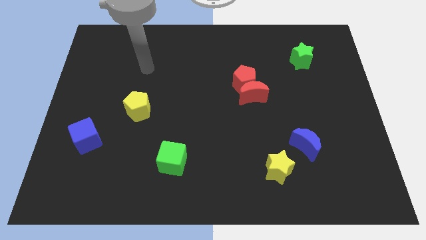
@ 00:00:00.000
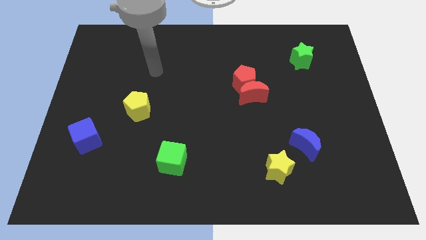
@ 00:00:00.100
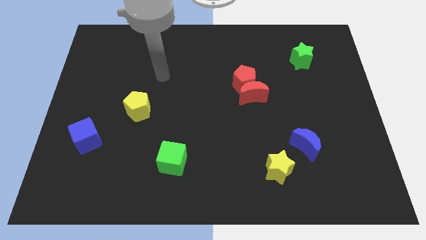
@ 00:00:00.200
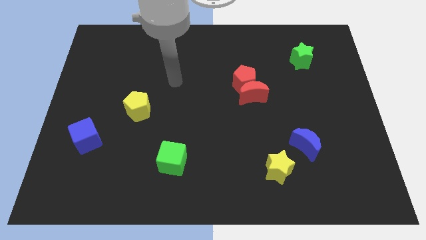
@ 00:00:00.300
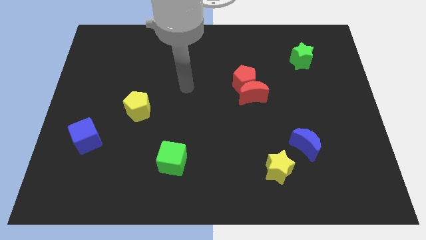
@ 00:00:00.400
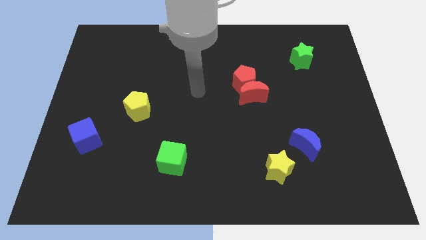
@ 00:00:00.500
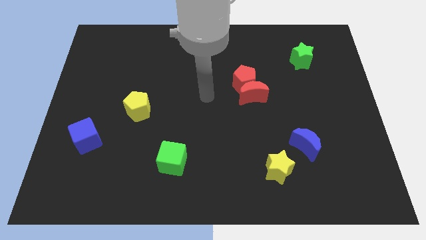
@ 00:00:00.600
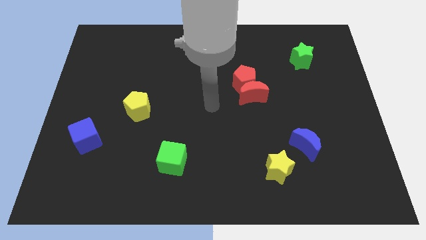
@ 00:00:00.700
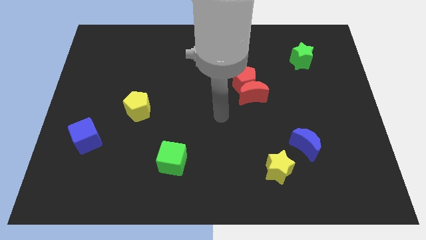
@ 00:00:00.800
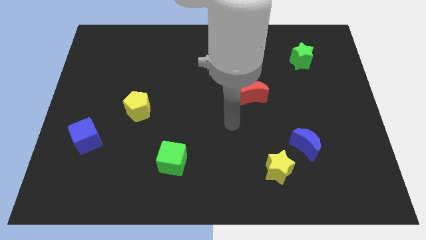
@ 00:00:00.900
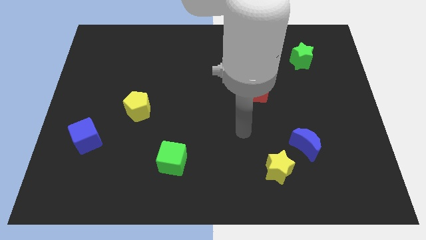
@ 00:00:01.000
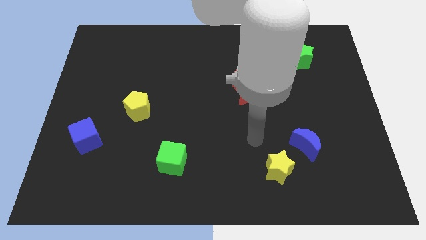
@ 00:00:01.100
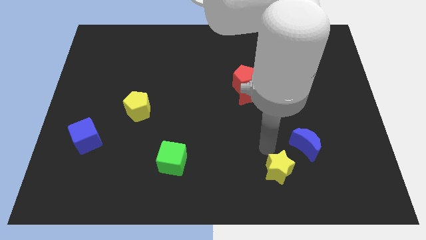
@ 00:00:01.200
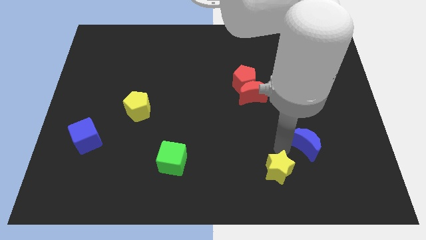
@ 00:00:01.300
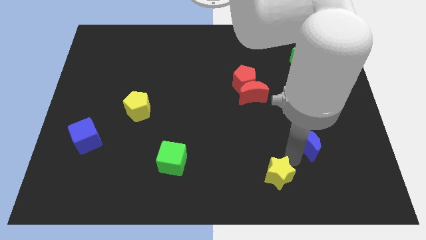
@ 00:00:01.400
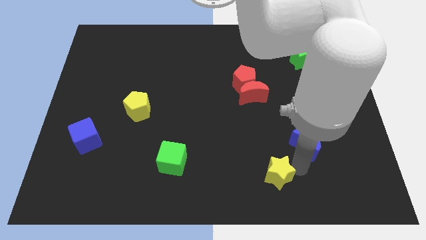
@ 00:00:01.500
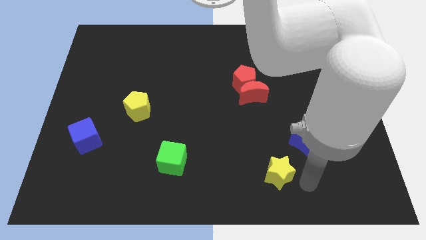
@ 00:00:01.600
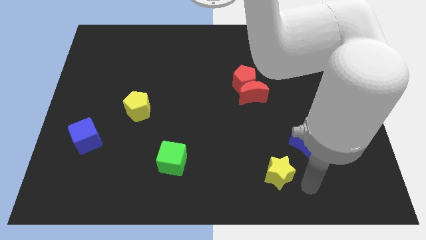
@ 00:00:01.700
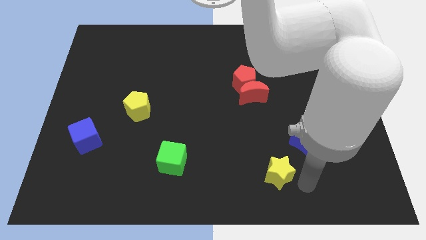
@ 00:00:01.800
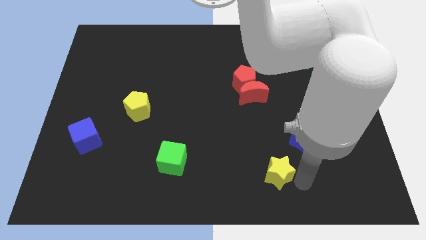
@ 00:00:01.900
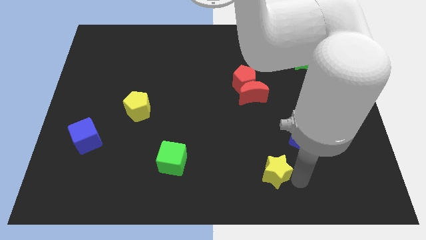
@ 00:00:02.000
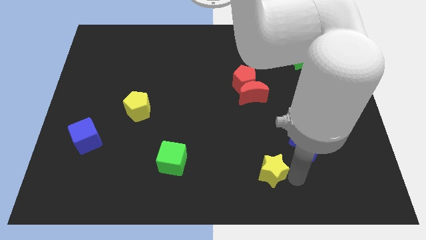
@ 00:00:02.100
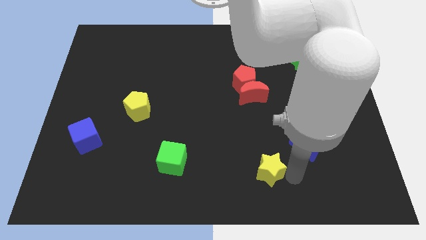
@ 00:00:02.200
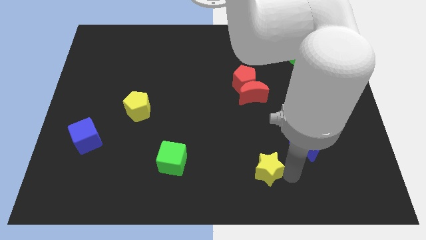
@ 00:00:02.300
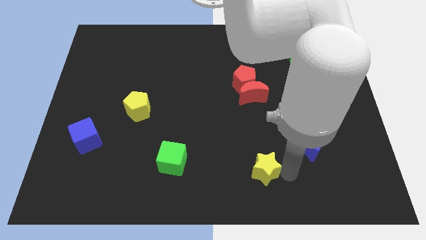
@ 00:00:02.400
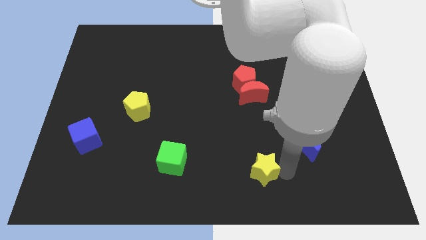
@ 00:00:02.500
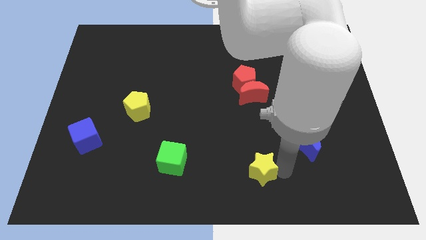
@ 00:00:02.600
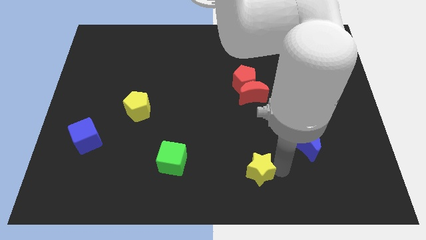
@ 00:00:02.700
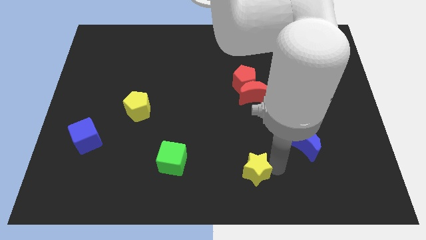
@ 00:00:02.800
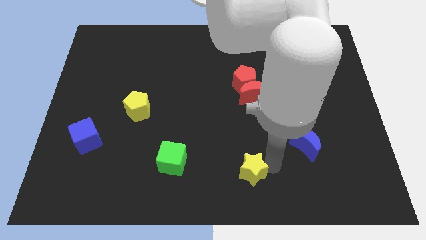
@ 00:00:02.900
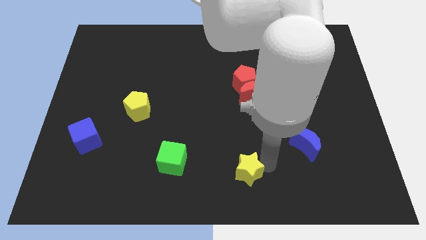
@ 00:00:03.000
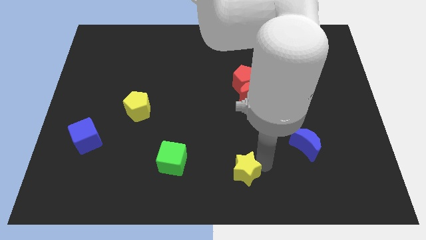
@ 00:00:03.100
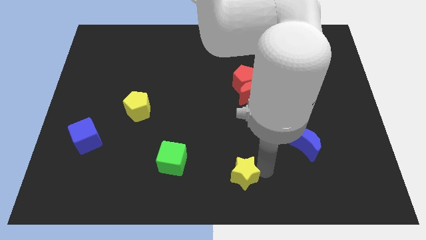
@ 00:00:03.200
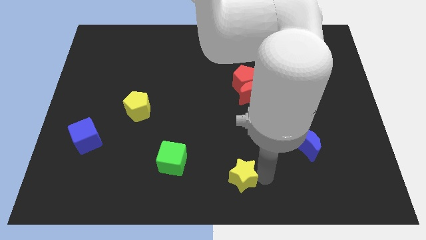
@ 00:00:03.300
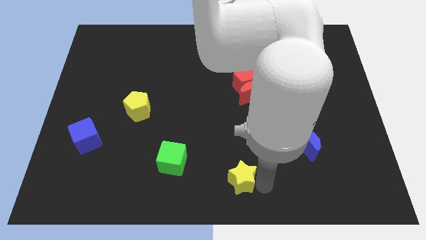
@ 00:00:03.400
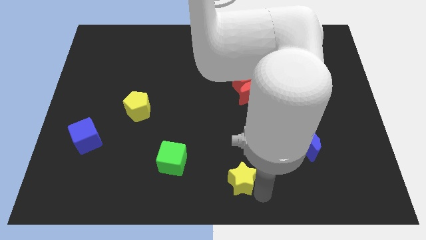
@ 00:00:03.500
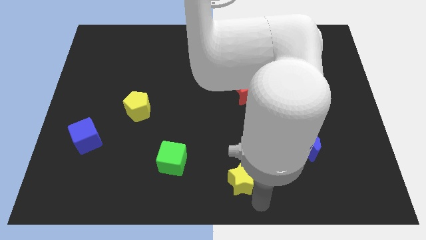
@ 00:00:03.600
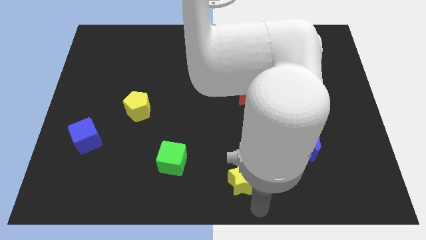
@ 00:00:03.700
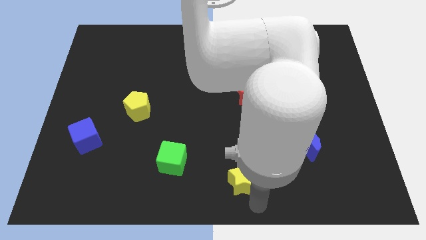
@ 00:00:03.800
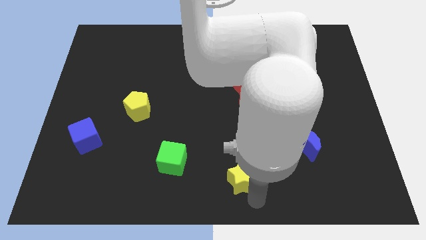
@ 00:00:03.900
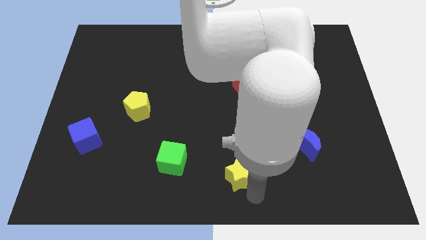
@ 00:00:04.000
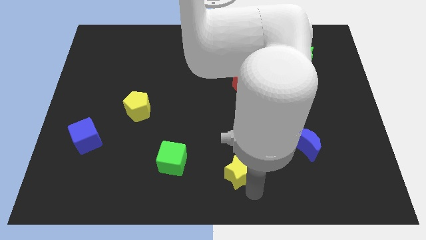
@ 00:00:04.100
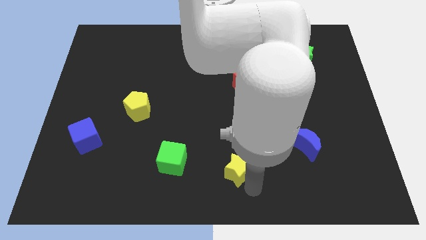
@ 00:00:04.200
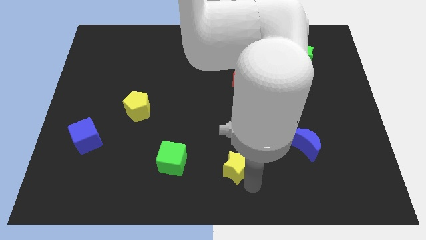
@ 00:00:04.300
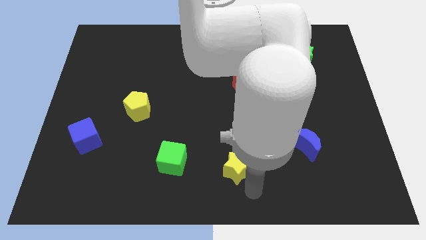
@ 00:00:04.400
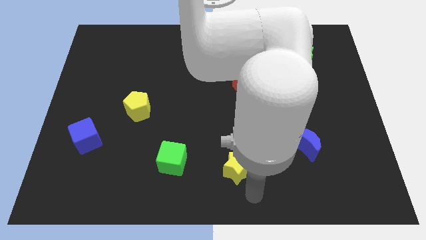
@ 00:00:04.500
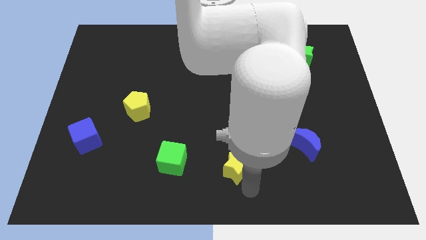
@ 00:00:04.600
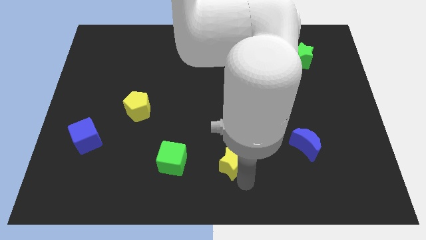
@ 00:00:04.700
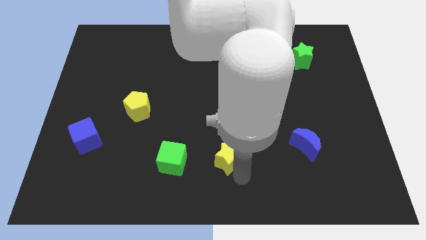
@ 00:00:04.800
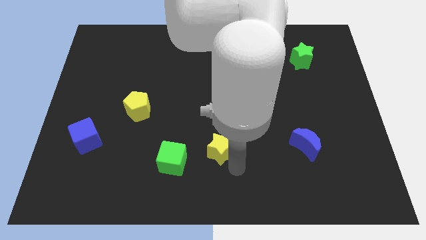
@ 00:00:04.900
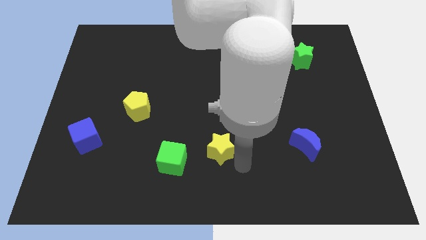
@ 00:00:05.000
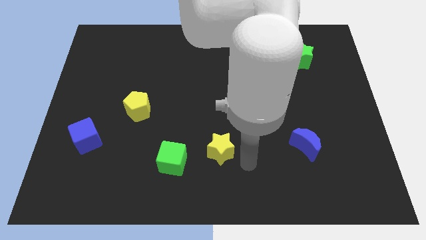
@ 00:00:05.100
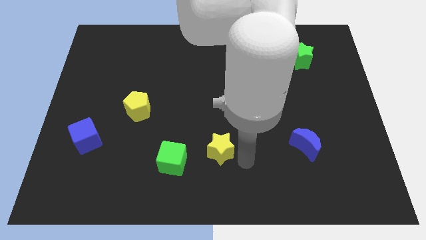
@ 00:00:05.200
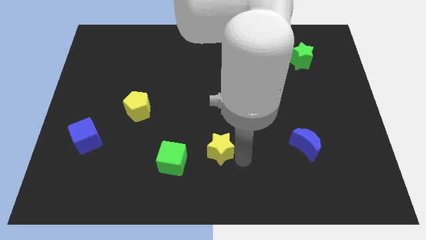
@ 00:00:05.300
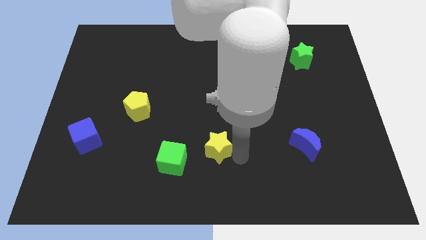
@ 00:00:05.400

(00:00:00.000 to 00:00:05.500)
slide the yellow star diagonally up and to the right of the green cube

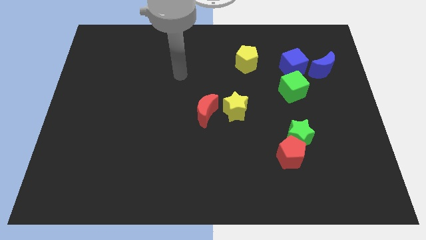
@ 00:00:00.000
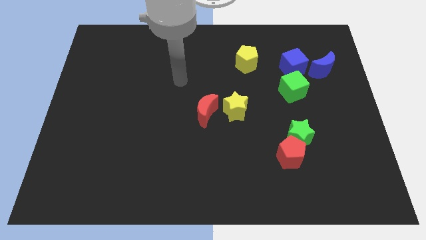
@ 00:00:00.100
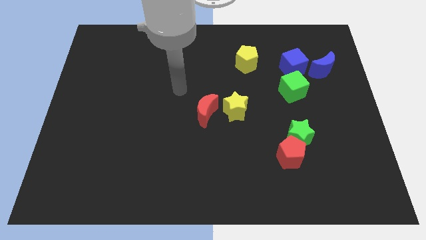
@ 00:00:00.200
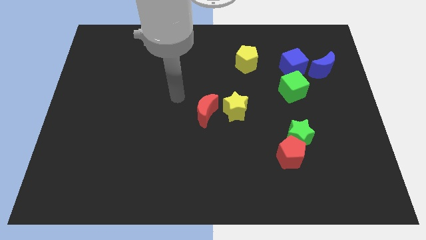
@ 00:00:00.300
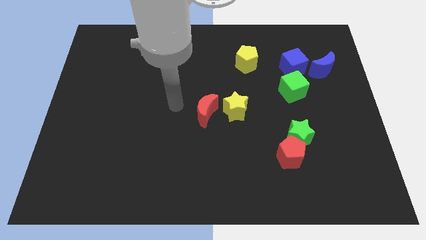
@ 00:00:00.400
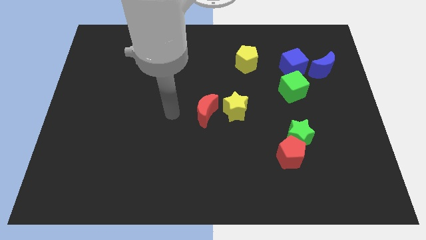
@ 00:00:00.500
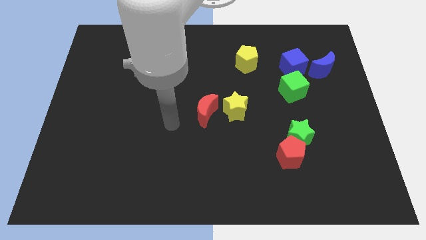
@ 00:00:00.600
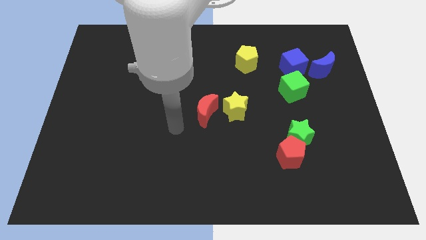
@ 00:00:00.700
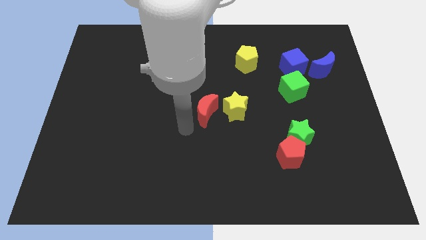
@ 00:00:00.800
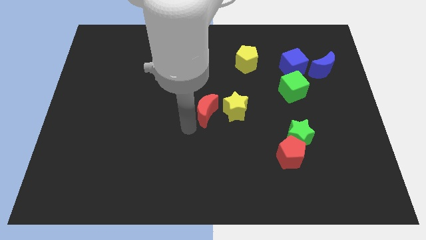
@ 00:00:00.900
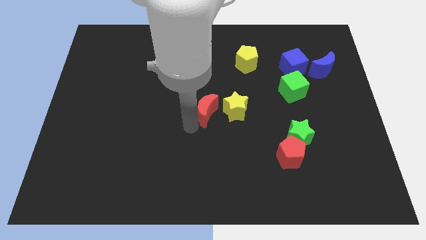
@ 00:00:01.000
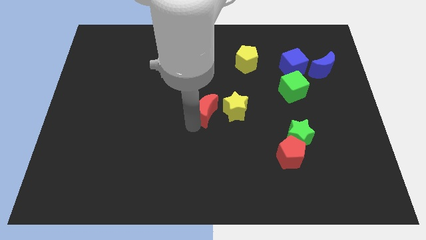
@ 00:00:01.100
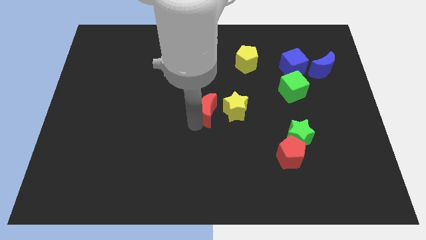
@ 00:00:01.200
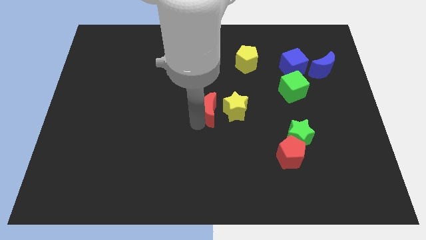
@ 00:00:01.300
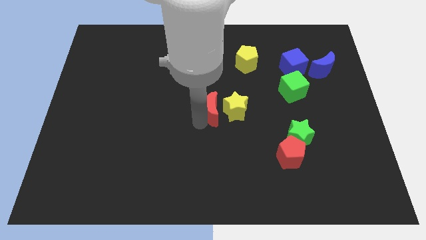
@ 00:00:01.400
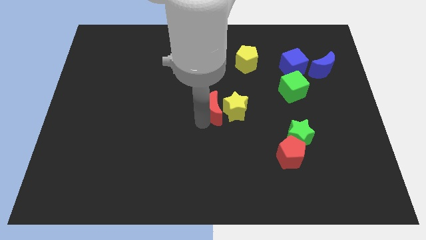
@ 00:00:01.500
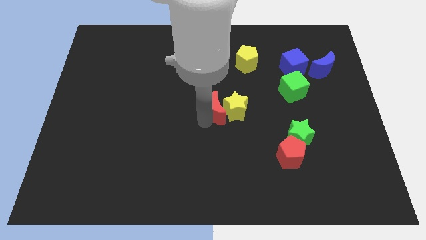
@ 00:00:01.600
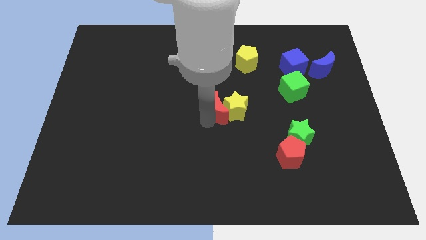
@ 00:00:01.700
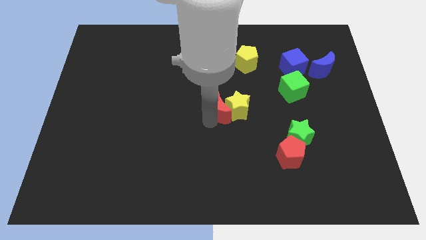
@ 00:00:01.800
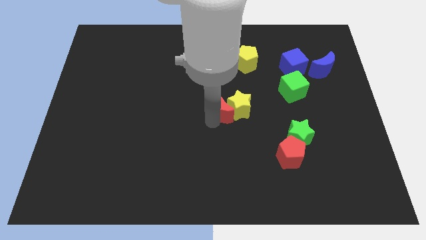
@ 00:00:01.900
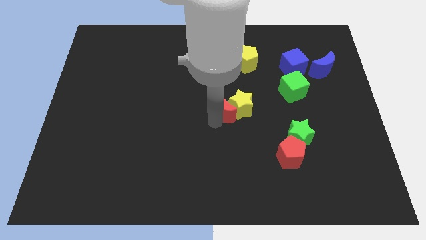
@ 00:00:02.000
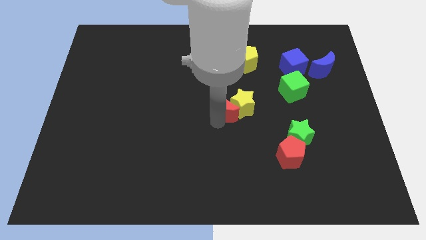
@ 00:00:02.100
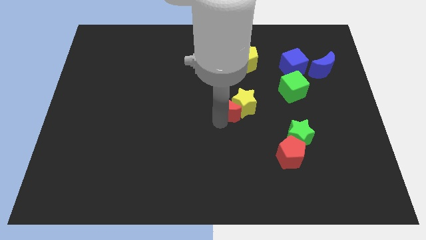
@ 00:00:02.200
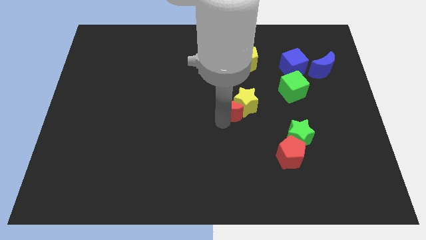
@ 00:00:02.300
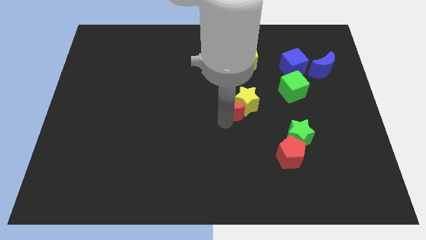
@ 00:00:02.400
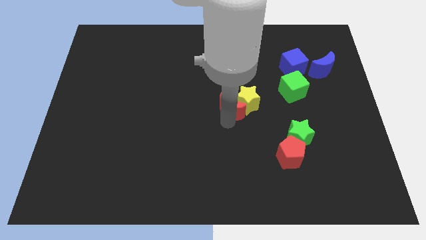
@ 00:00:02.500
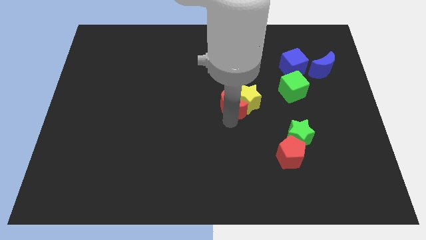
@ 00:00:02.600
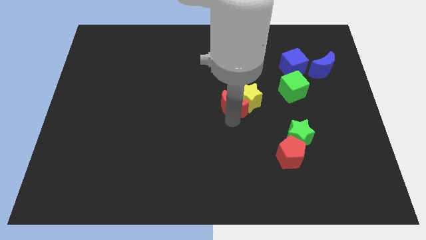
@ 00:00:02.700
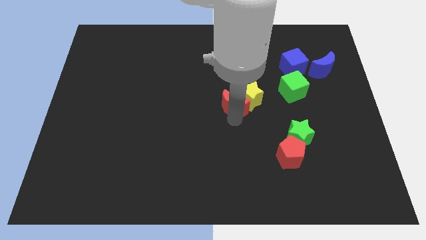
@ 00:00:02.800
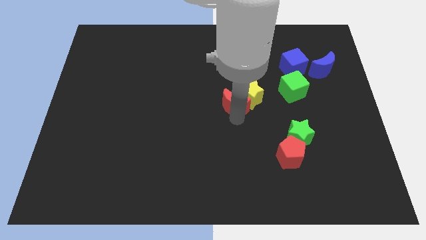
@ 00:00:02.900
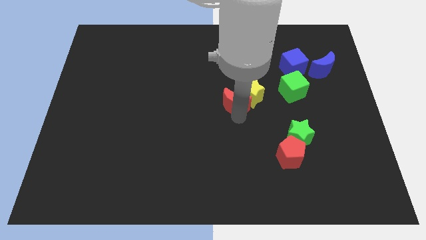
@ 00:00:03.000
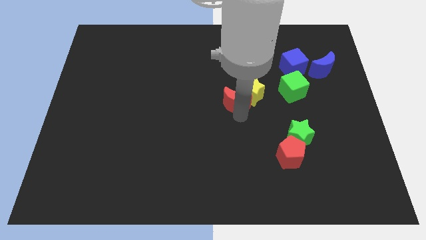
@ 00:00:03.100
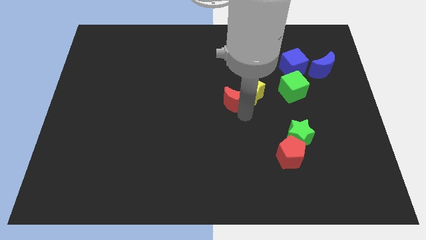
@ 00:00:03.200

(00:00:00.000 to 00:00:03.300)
move the red moon to the left side of the green cube
